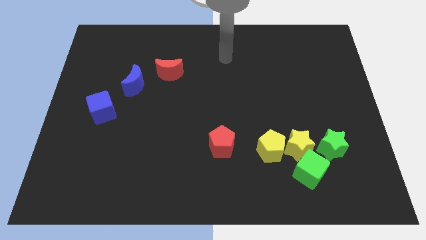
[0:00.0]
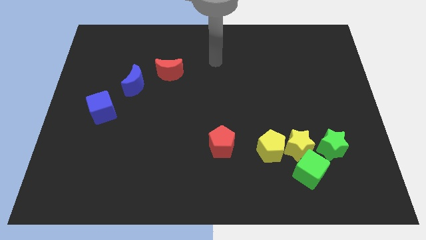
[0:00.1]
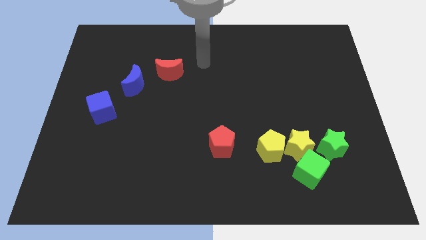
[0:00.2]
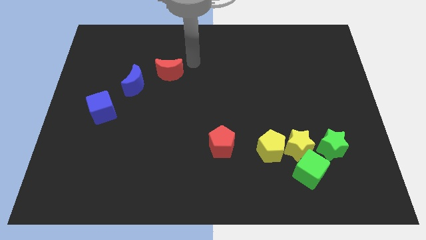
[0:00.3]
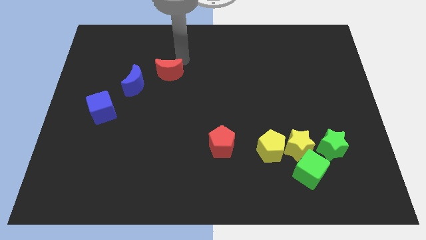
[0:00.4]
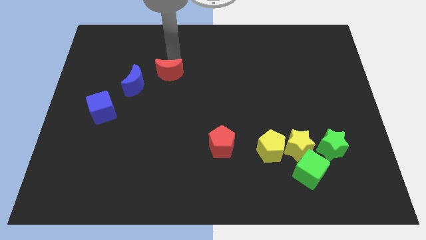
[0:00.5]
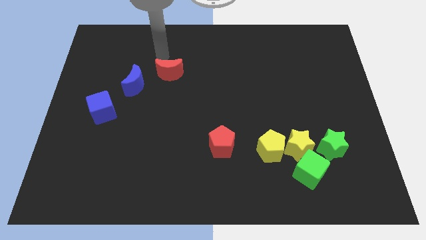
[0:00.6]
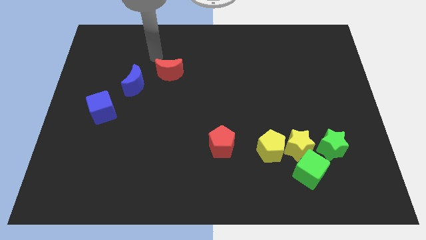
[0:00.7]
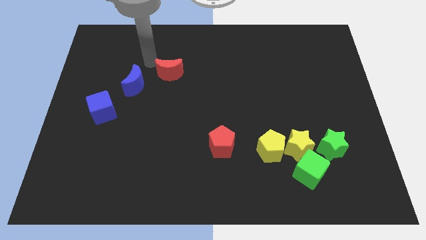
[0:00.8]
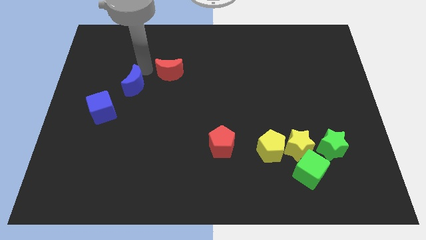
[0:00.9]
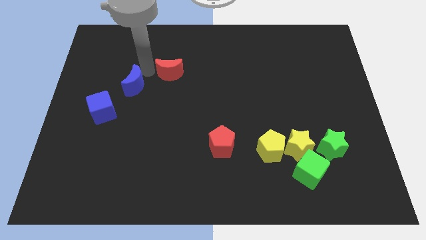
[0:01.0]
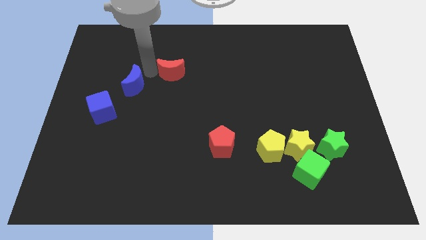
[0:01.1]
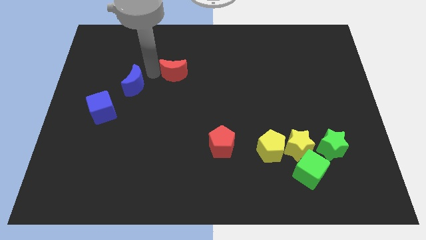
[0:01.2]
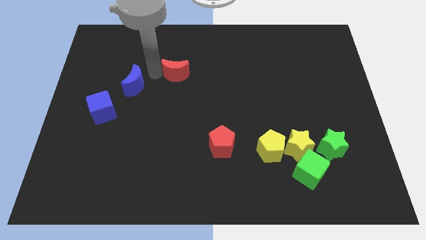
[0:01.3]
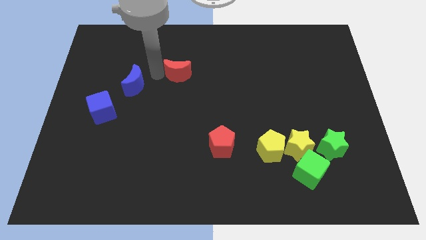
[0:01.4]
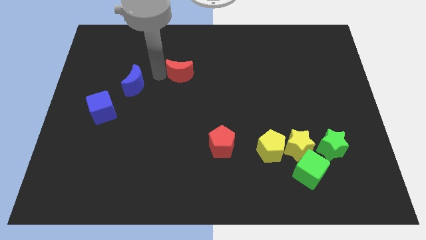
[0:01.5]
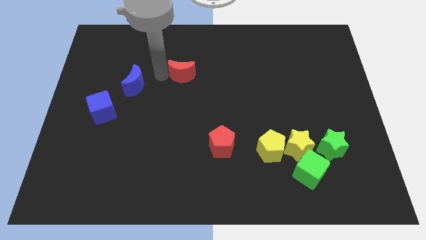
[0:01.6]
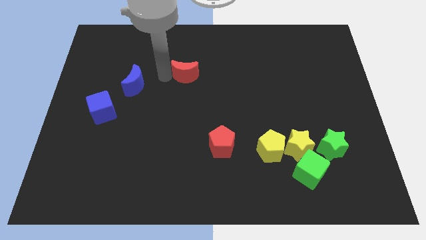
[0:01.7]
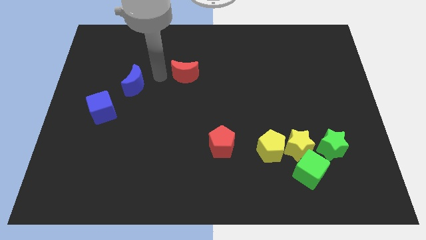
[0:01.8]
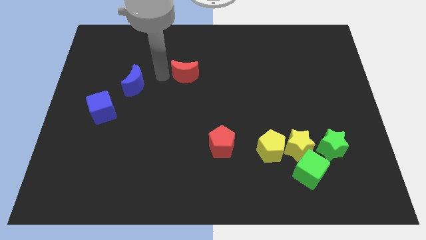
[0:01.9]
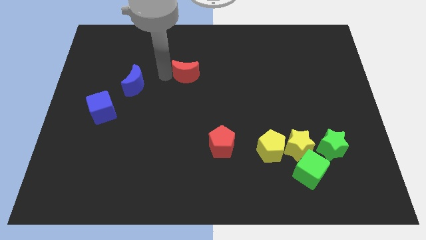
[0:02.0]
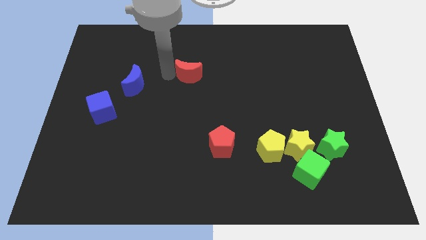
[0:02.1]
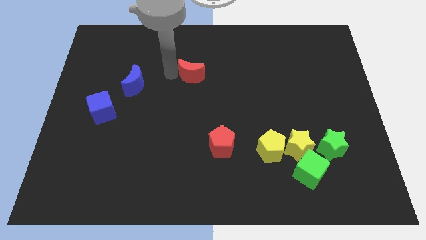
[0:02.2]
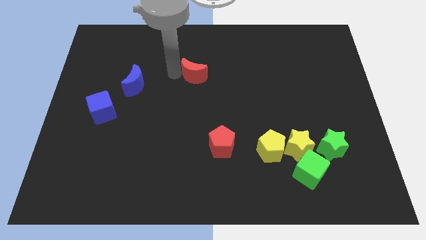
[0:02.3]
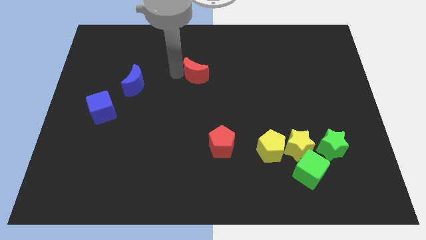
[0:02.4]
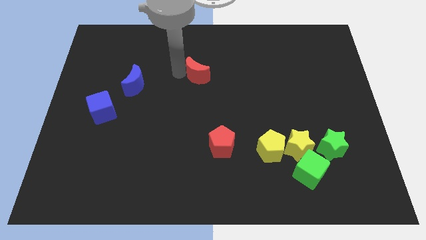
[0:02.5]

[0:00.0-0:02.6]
slightly move the red moon to the right

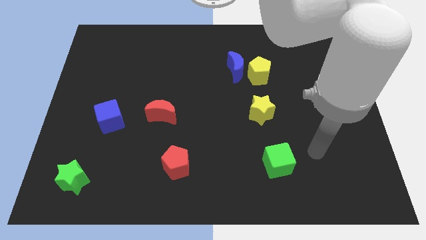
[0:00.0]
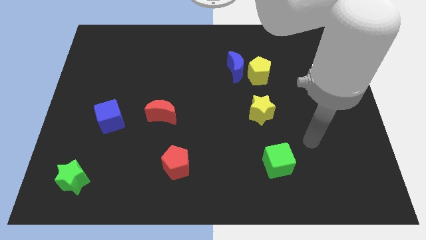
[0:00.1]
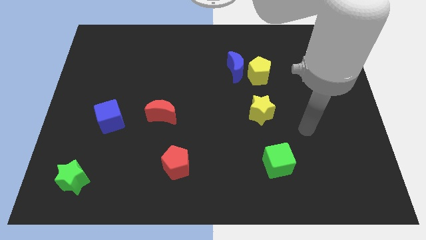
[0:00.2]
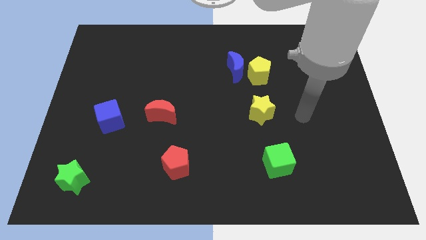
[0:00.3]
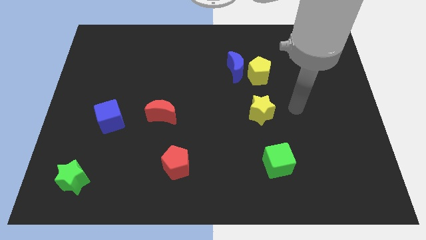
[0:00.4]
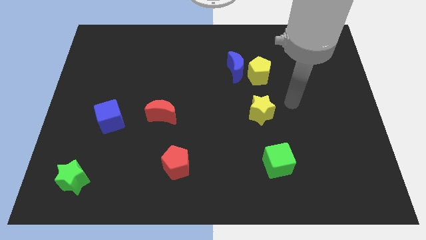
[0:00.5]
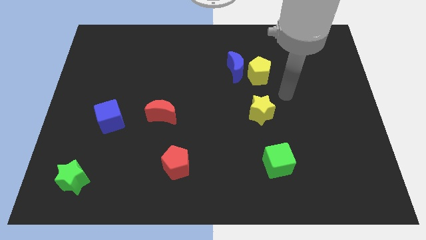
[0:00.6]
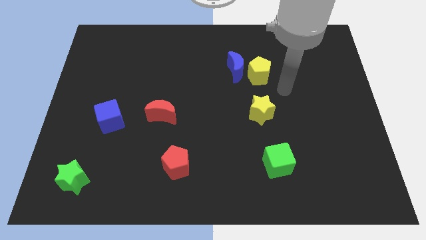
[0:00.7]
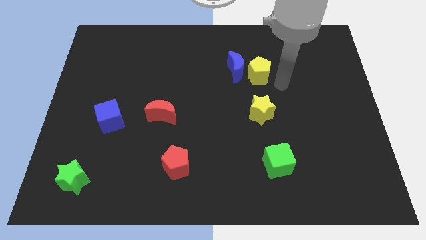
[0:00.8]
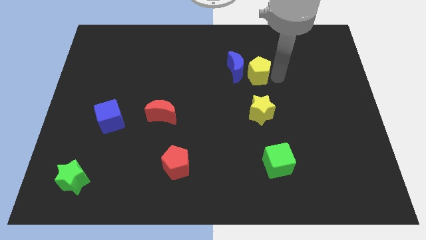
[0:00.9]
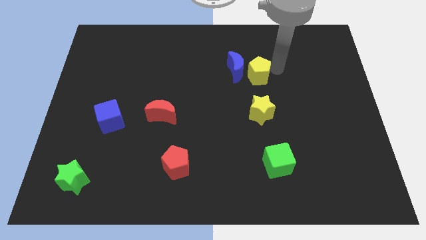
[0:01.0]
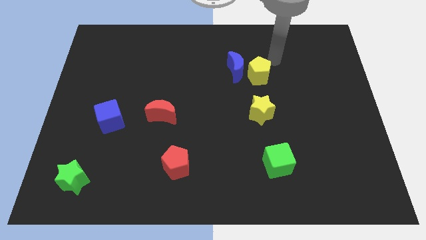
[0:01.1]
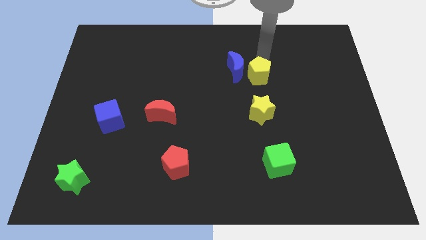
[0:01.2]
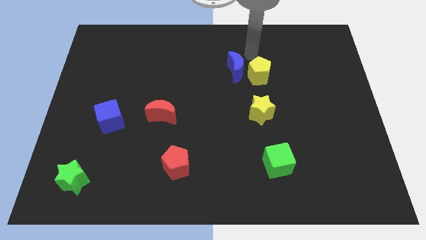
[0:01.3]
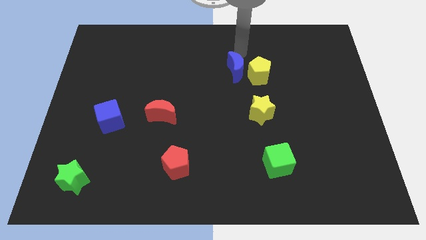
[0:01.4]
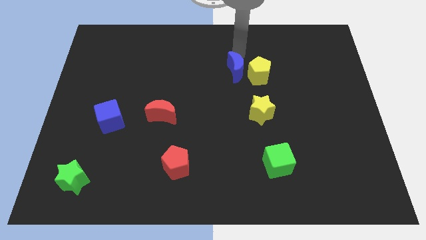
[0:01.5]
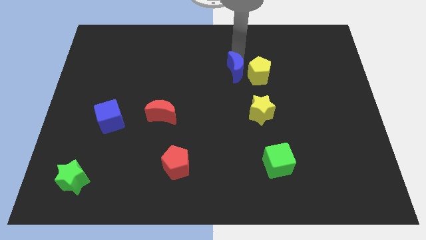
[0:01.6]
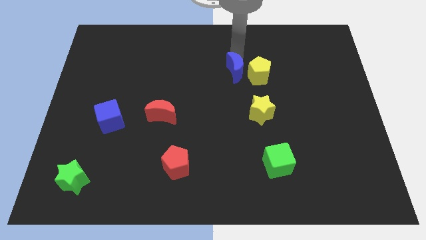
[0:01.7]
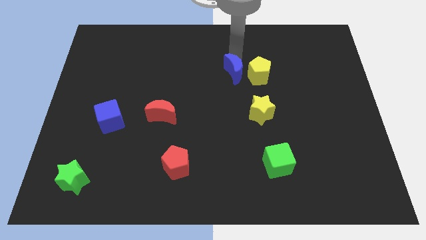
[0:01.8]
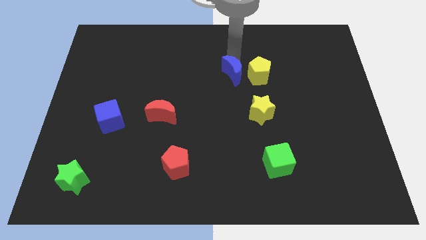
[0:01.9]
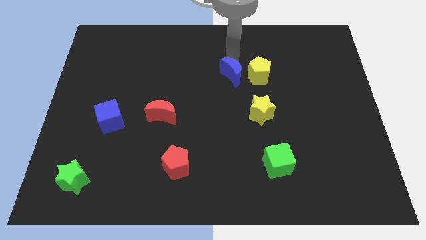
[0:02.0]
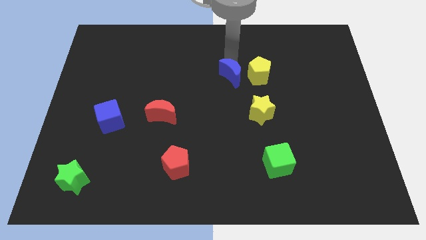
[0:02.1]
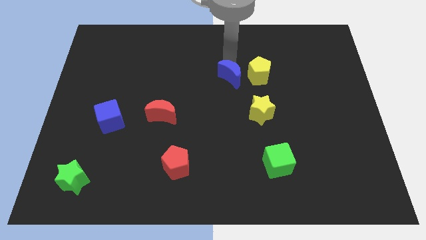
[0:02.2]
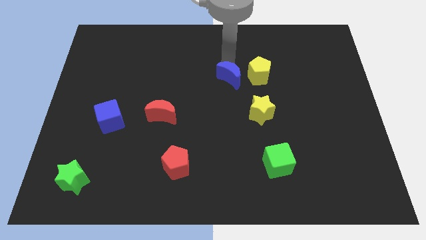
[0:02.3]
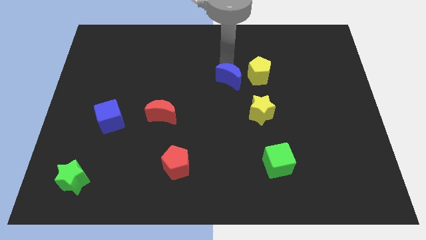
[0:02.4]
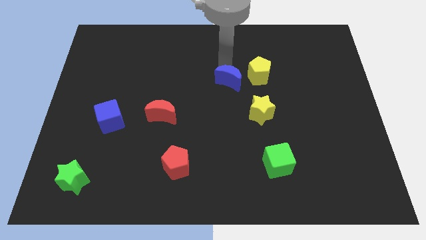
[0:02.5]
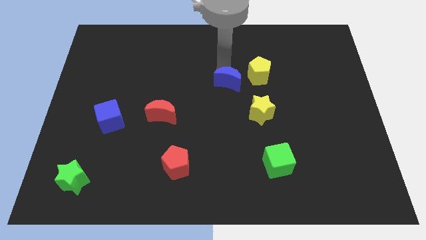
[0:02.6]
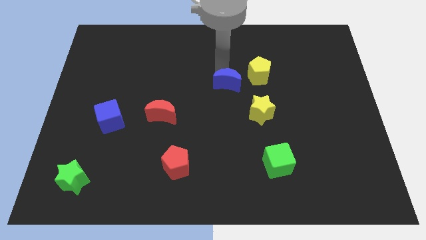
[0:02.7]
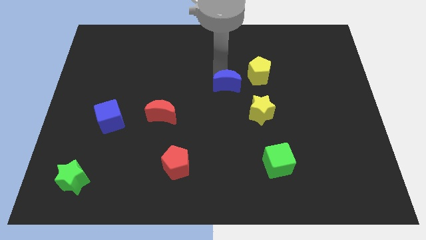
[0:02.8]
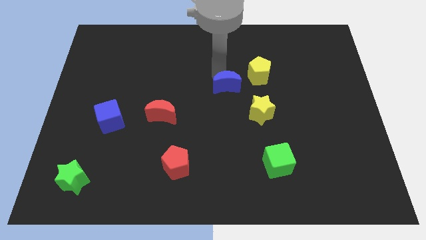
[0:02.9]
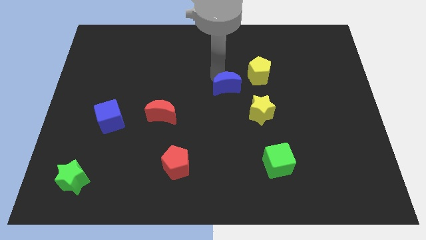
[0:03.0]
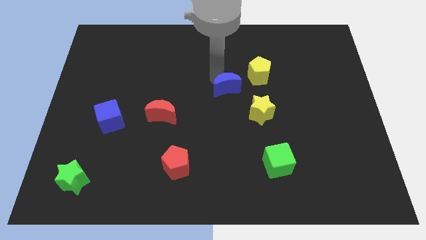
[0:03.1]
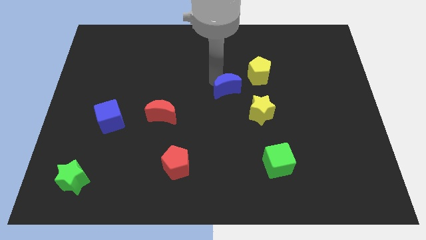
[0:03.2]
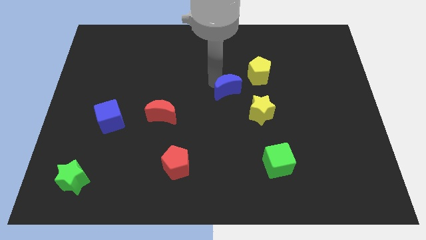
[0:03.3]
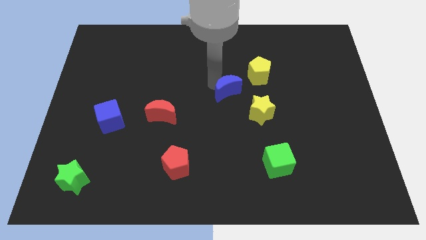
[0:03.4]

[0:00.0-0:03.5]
push the blue moon somewhat down

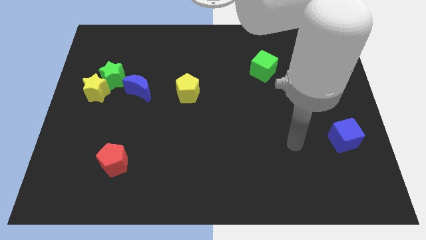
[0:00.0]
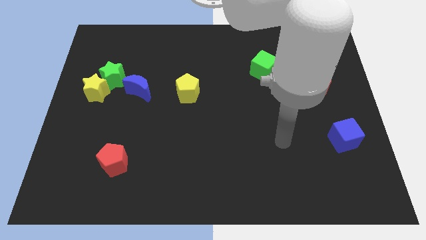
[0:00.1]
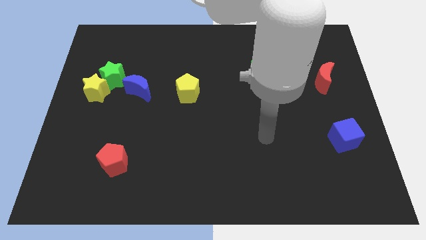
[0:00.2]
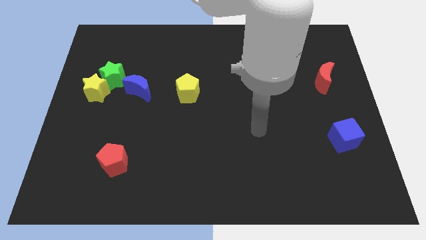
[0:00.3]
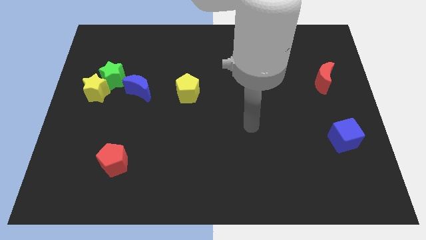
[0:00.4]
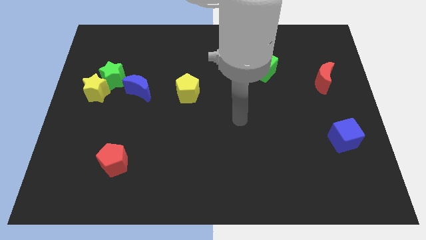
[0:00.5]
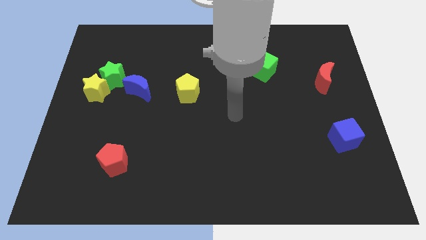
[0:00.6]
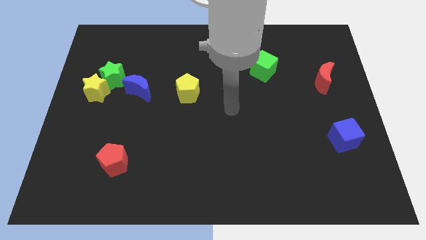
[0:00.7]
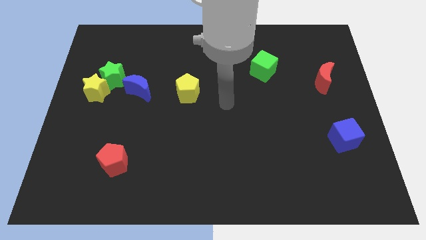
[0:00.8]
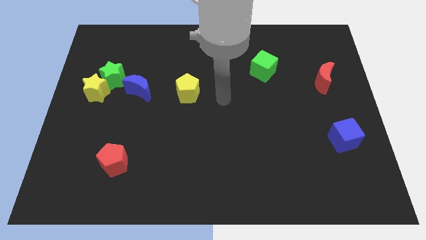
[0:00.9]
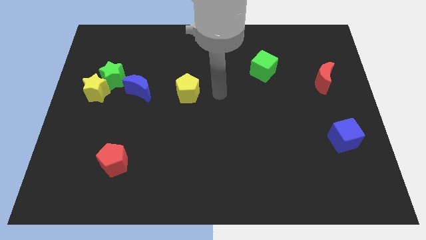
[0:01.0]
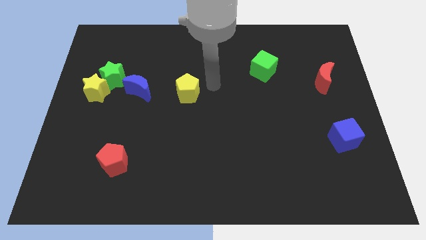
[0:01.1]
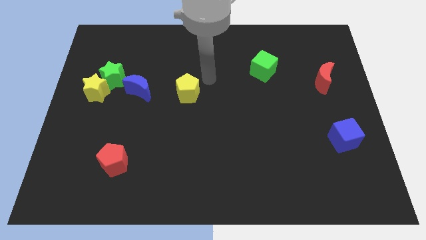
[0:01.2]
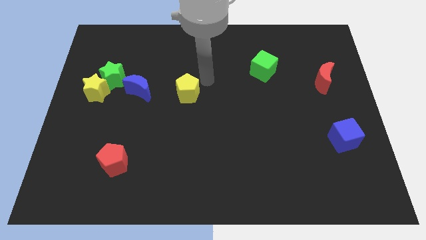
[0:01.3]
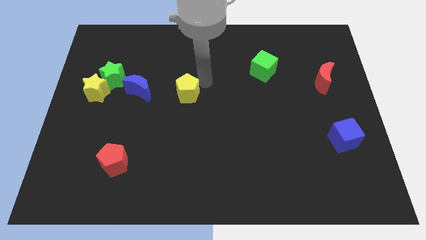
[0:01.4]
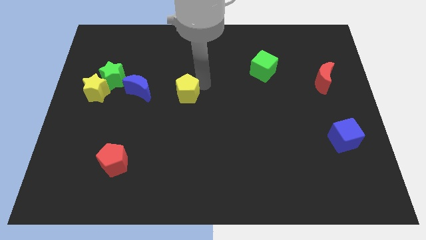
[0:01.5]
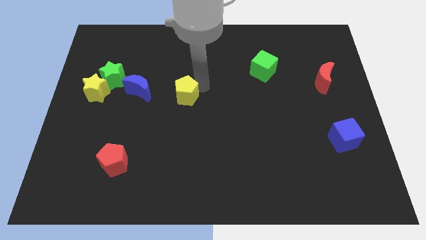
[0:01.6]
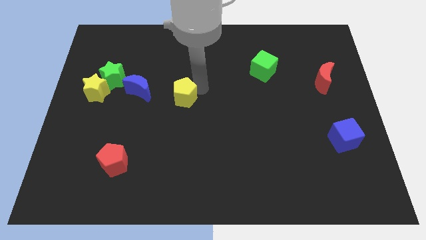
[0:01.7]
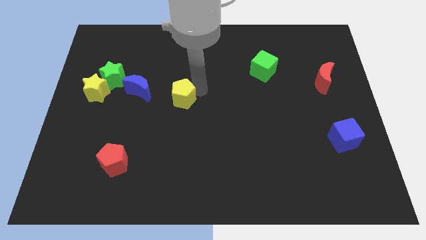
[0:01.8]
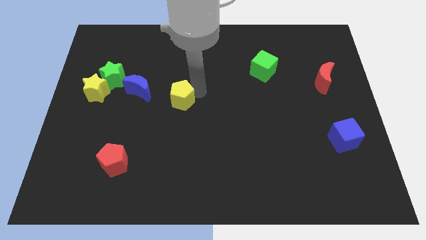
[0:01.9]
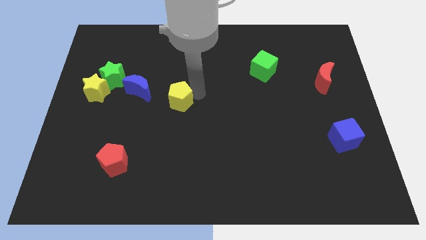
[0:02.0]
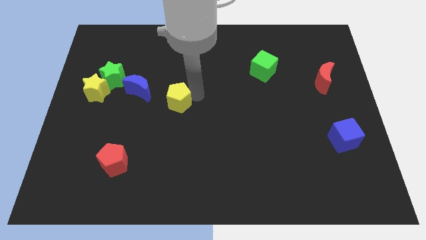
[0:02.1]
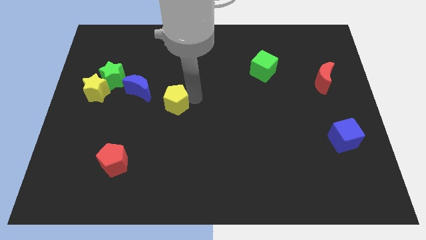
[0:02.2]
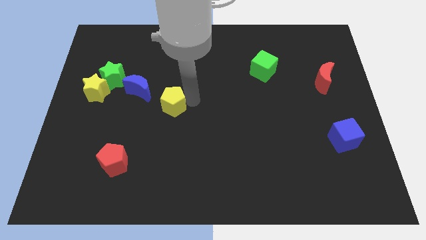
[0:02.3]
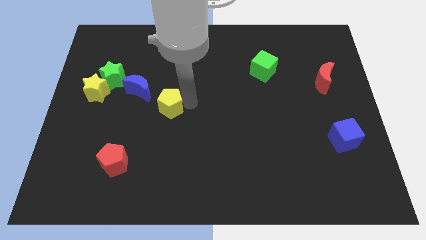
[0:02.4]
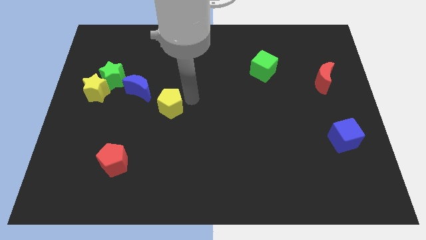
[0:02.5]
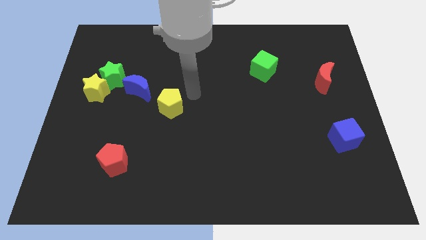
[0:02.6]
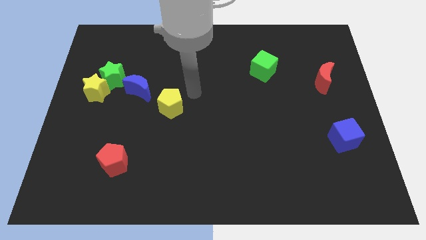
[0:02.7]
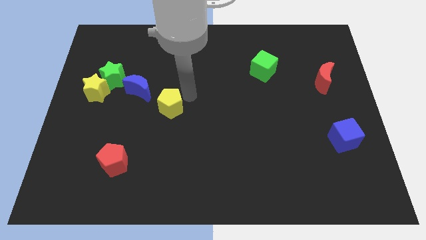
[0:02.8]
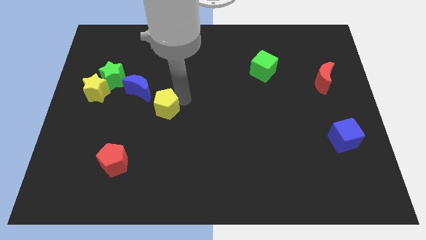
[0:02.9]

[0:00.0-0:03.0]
move the yellow pentagon downwards and left a little bit
